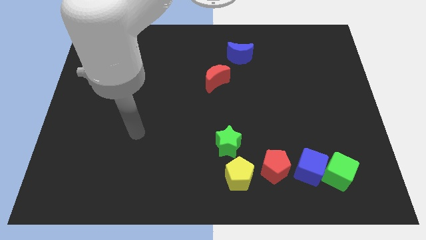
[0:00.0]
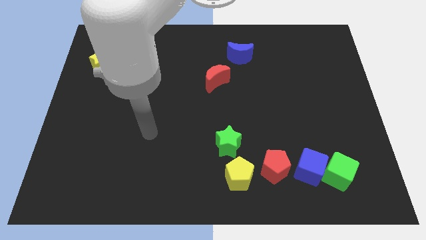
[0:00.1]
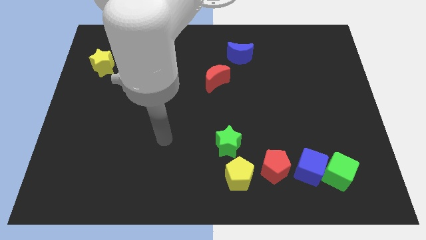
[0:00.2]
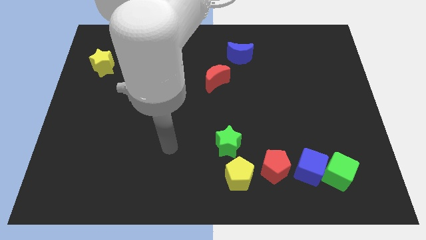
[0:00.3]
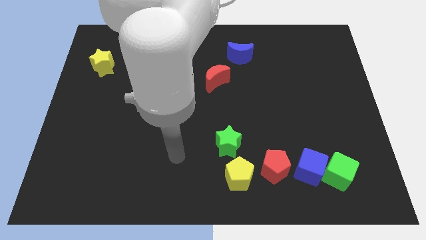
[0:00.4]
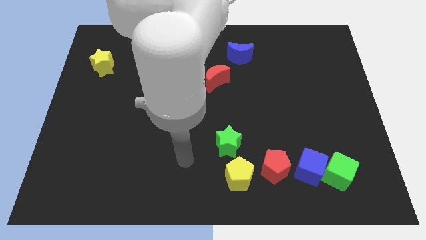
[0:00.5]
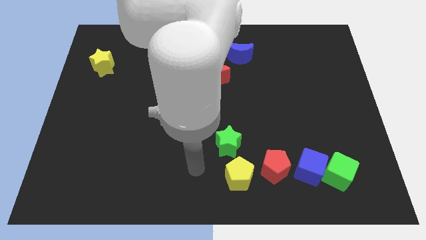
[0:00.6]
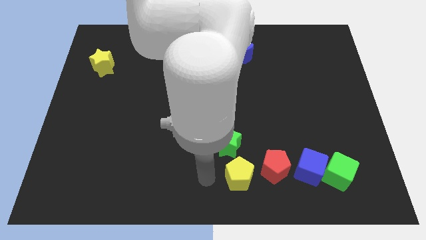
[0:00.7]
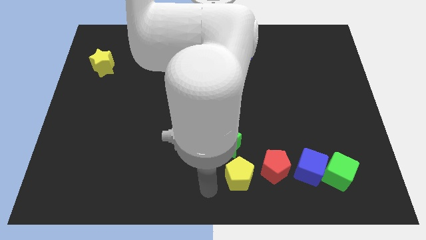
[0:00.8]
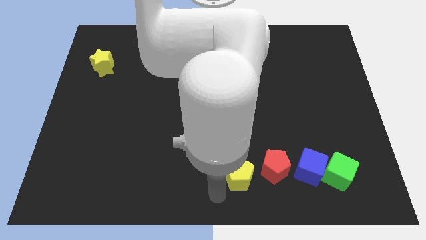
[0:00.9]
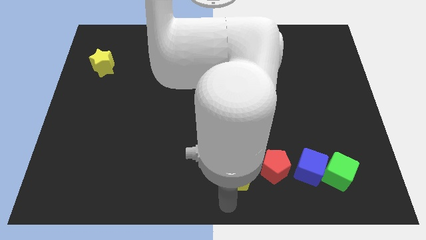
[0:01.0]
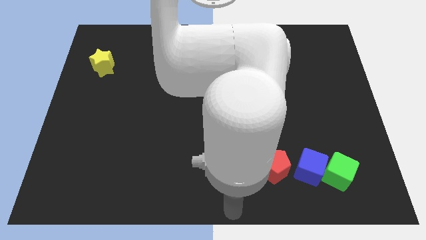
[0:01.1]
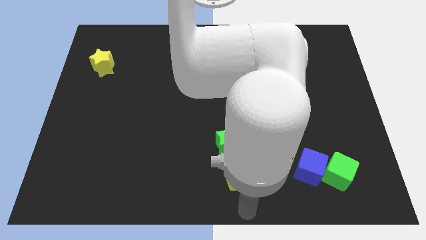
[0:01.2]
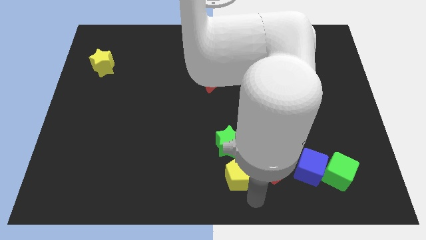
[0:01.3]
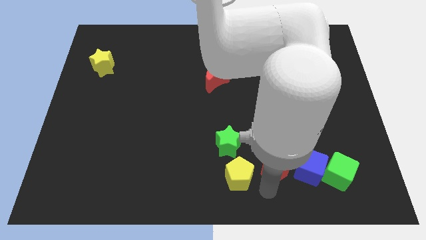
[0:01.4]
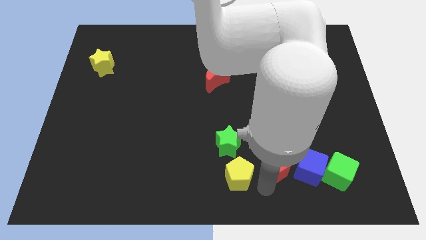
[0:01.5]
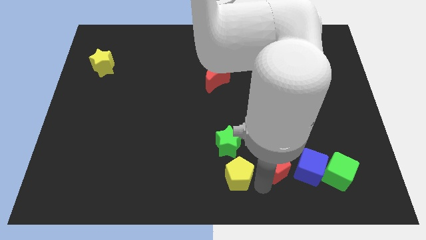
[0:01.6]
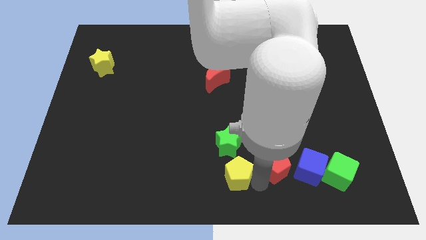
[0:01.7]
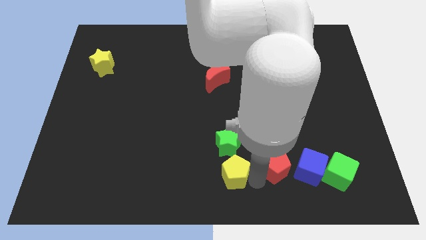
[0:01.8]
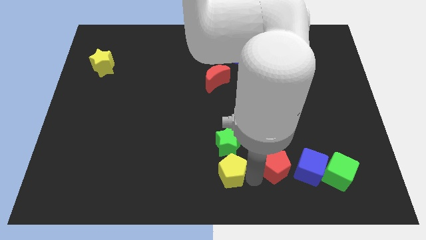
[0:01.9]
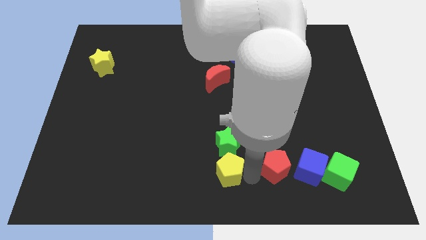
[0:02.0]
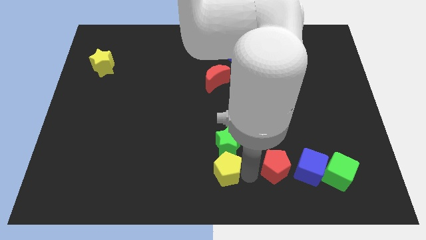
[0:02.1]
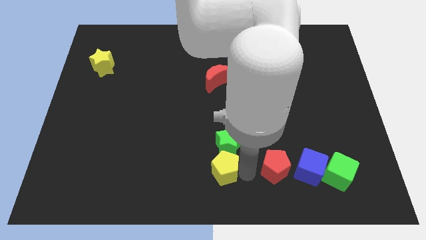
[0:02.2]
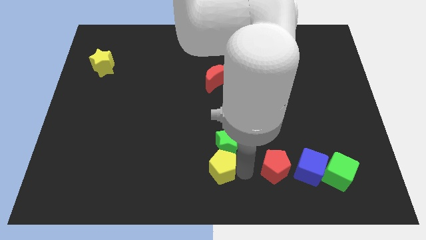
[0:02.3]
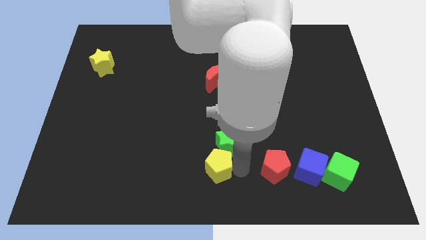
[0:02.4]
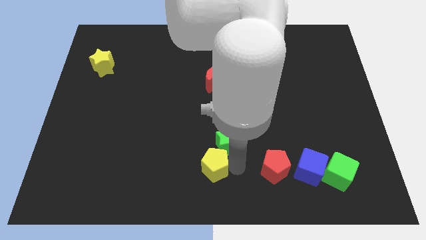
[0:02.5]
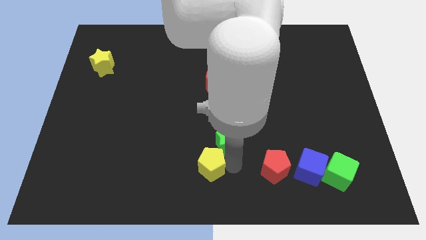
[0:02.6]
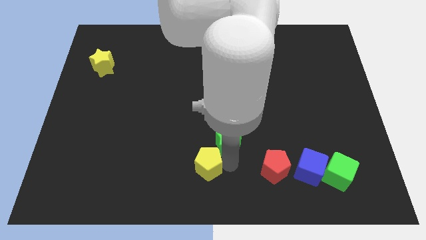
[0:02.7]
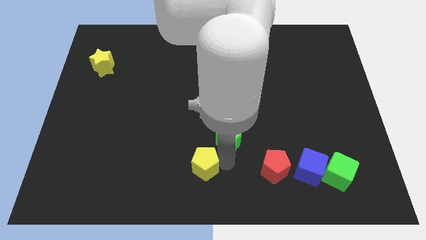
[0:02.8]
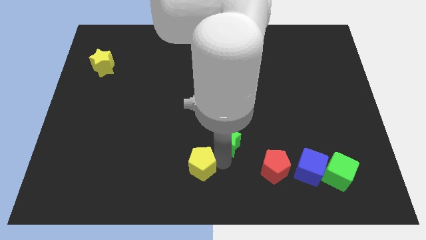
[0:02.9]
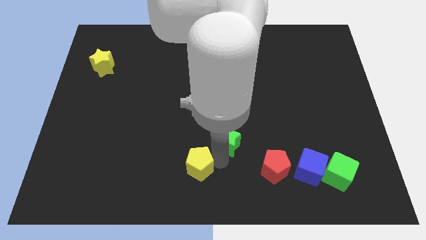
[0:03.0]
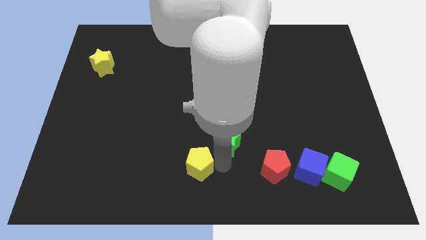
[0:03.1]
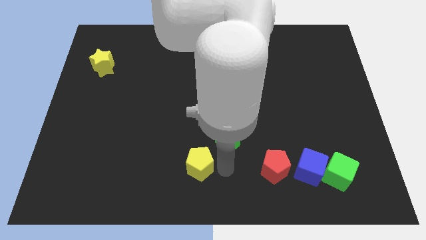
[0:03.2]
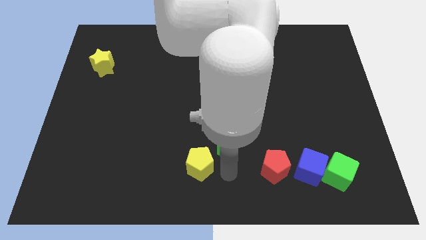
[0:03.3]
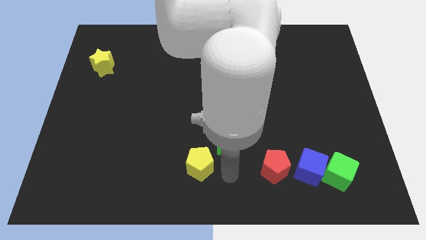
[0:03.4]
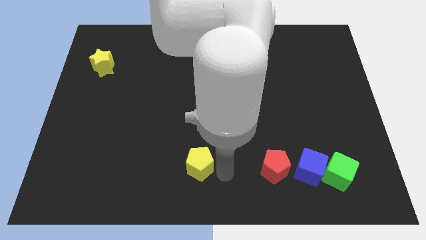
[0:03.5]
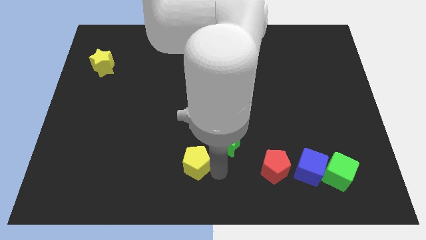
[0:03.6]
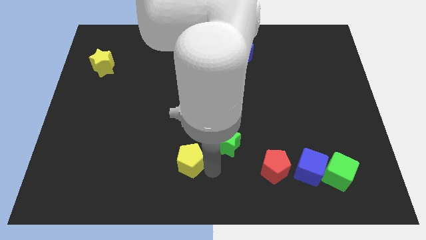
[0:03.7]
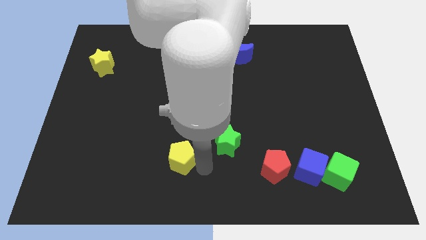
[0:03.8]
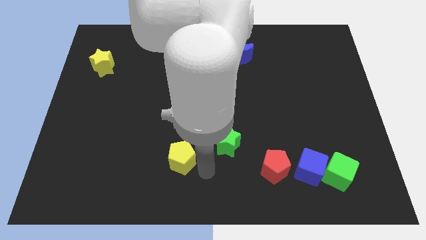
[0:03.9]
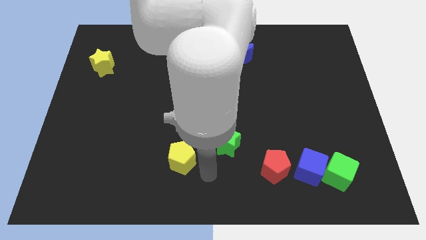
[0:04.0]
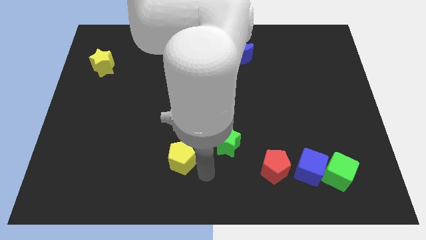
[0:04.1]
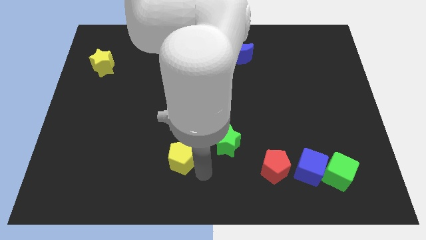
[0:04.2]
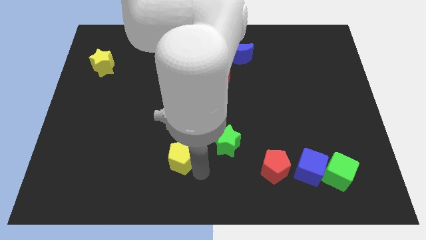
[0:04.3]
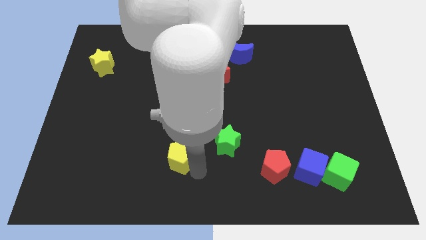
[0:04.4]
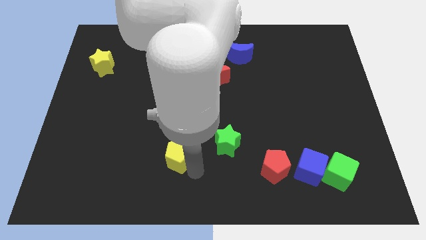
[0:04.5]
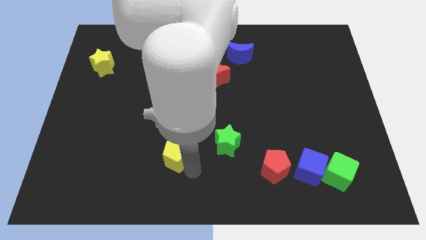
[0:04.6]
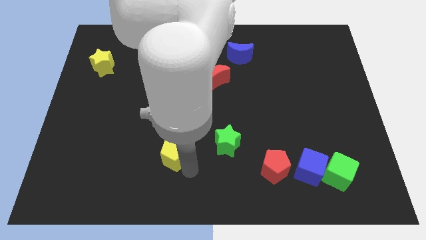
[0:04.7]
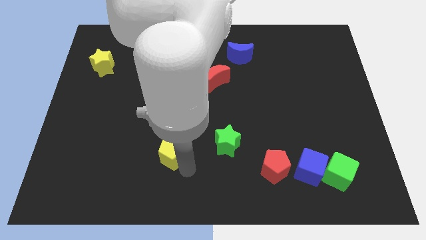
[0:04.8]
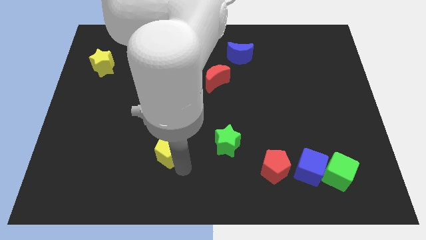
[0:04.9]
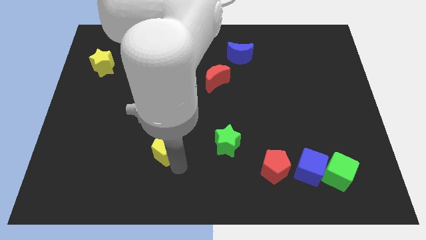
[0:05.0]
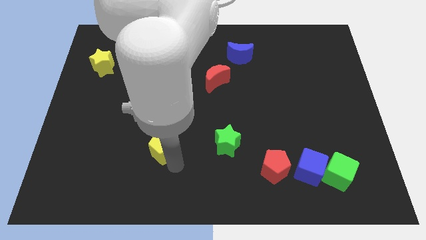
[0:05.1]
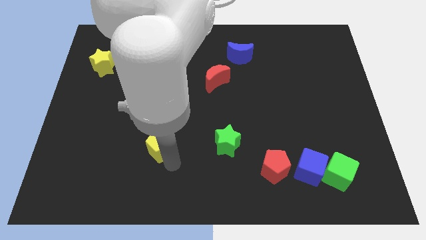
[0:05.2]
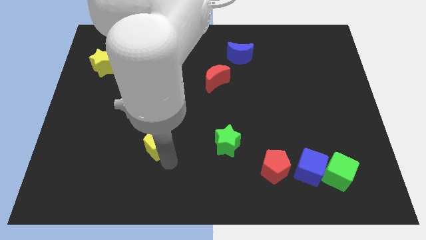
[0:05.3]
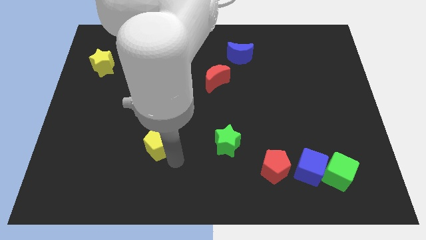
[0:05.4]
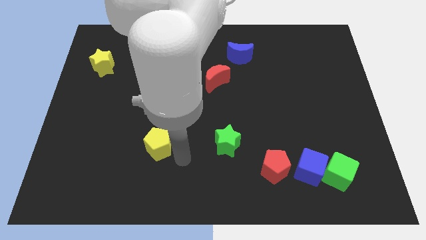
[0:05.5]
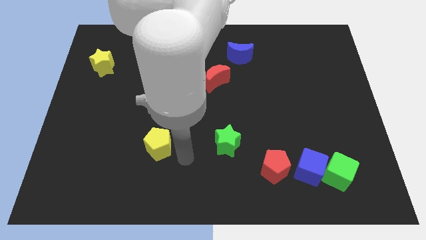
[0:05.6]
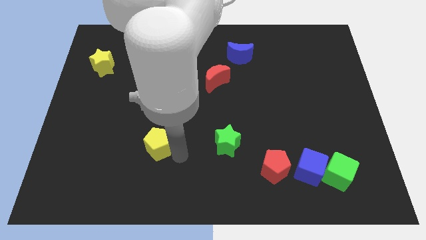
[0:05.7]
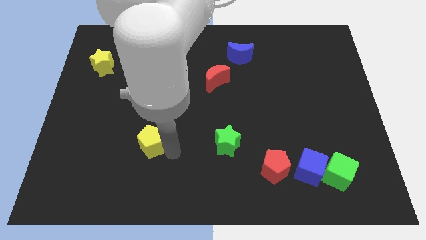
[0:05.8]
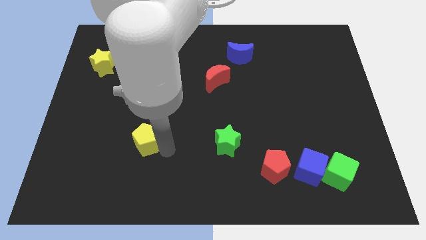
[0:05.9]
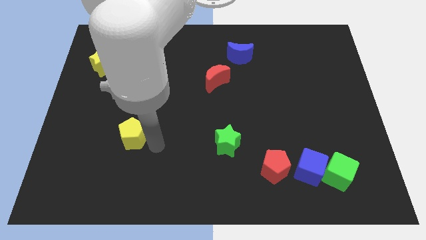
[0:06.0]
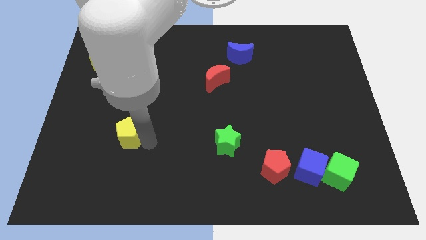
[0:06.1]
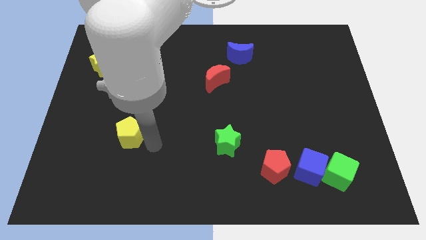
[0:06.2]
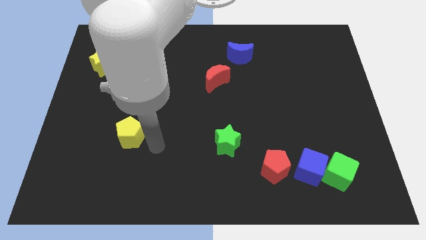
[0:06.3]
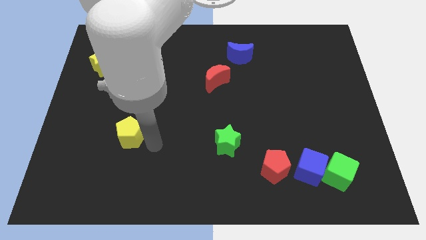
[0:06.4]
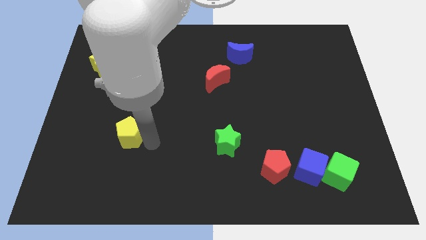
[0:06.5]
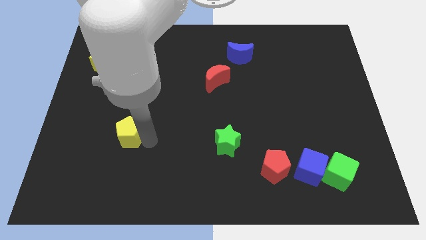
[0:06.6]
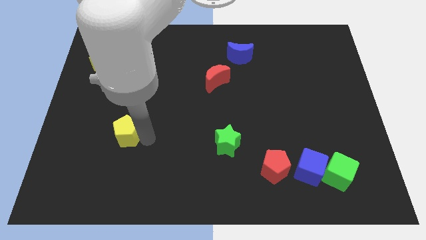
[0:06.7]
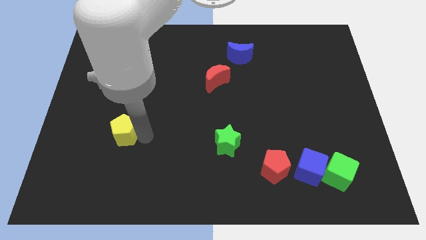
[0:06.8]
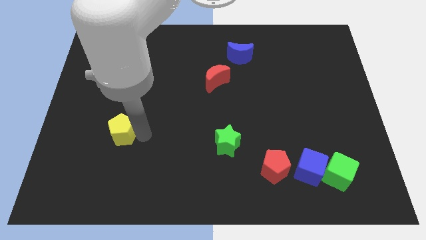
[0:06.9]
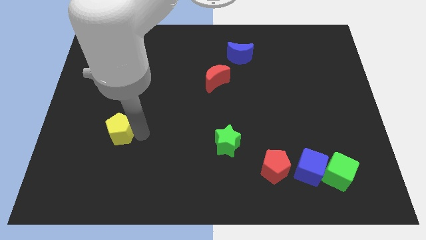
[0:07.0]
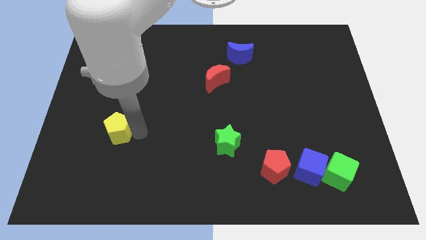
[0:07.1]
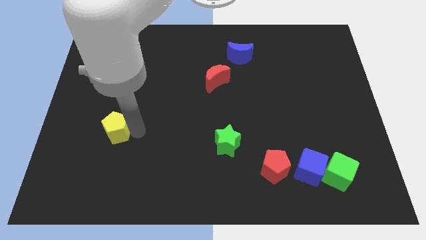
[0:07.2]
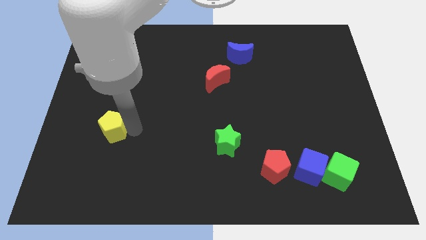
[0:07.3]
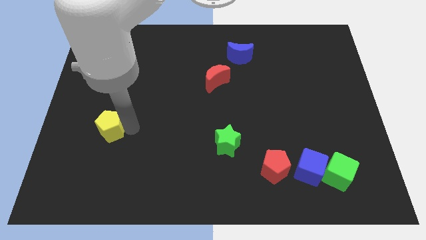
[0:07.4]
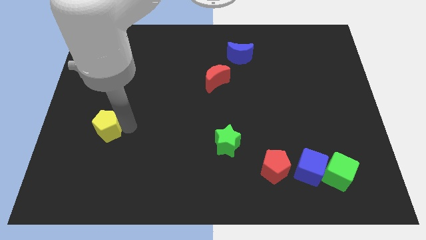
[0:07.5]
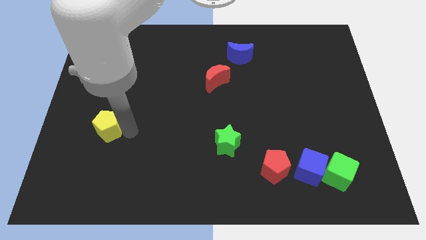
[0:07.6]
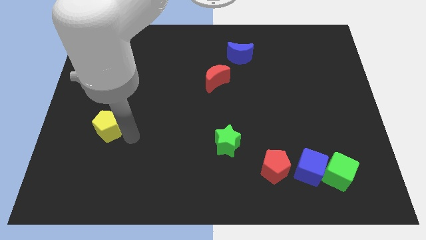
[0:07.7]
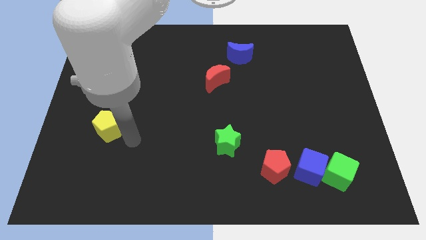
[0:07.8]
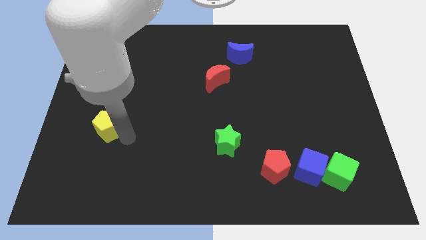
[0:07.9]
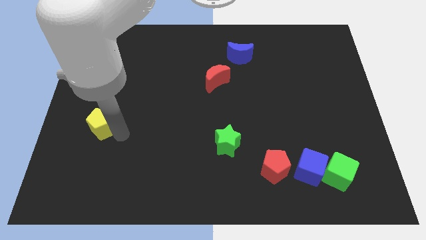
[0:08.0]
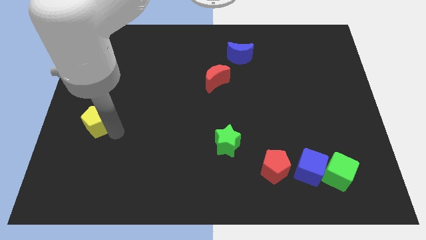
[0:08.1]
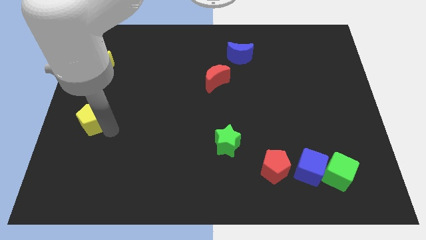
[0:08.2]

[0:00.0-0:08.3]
put the yellow pentagon to the center left
